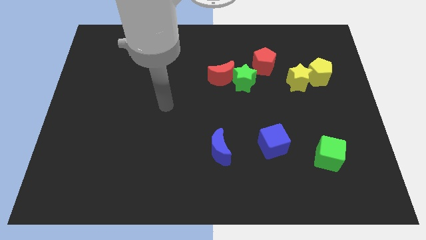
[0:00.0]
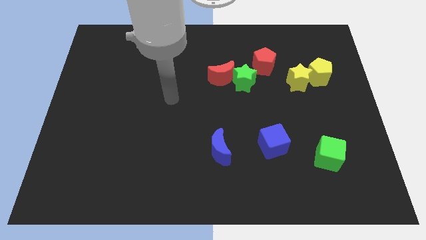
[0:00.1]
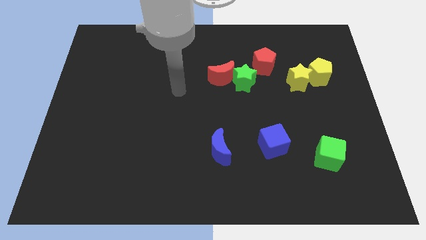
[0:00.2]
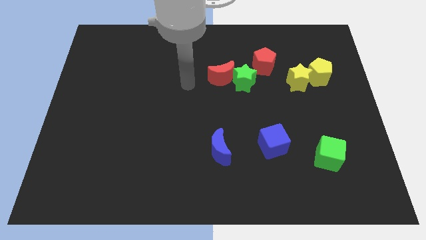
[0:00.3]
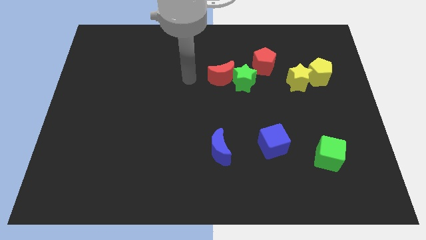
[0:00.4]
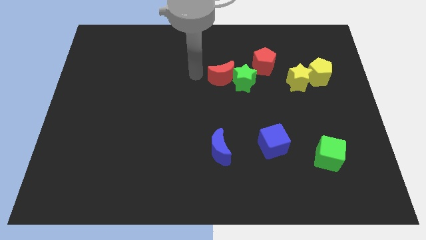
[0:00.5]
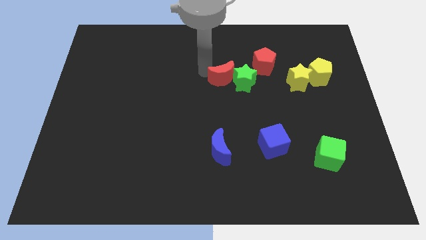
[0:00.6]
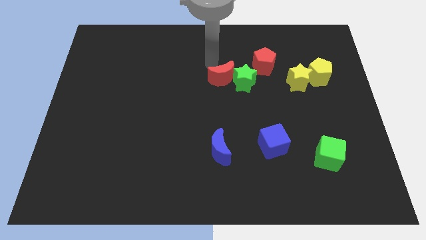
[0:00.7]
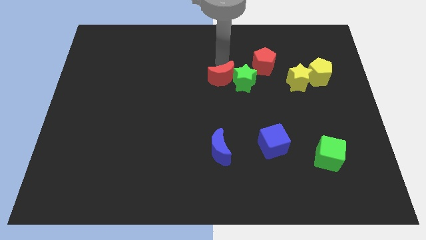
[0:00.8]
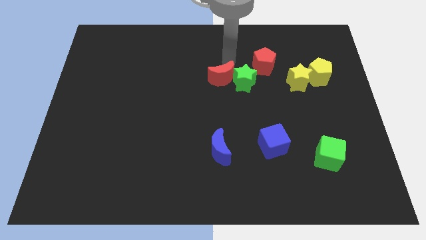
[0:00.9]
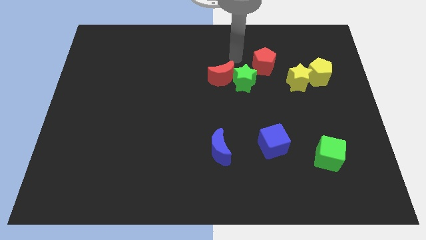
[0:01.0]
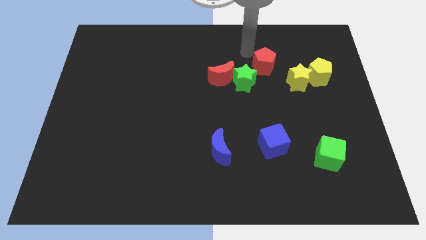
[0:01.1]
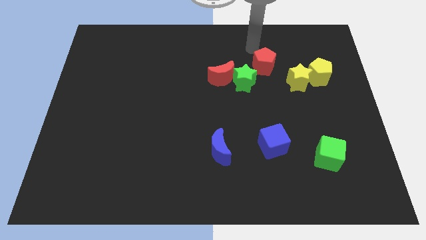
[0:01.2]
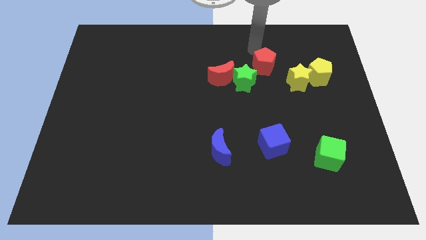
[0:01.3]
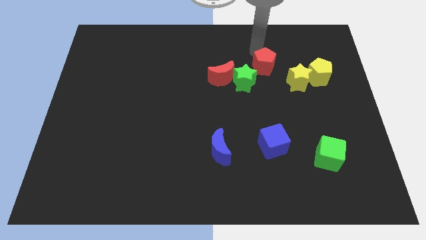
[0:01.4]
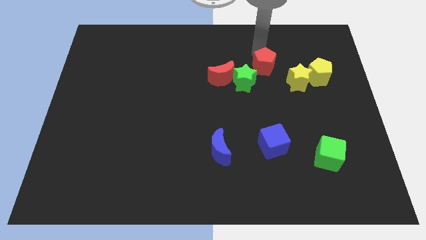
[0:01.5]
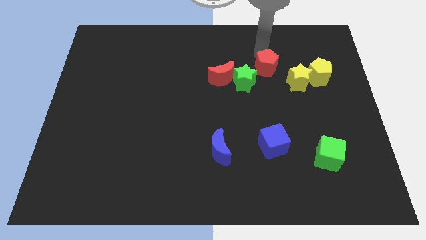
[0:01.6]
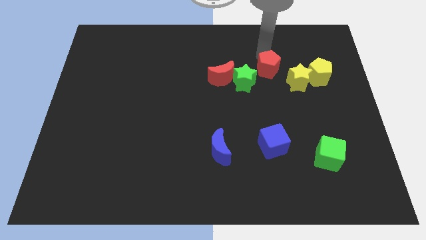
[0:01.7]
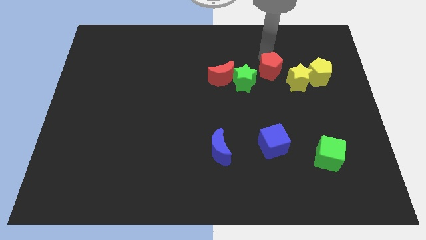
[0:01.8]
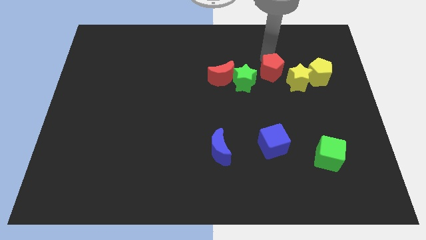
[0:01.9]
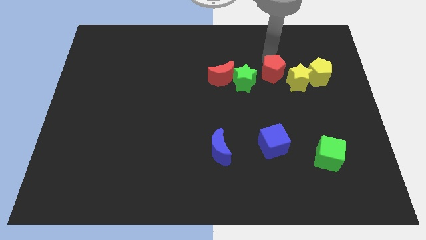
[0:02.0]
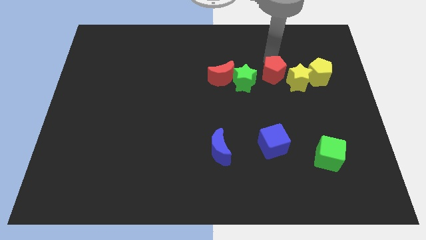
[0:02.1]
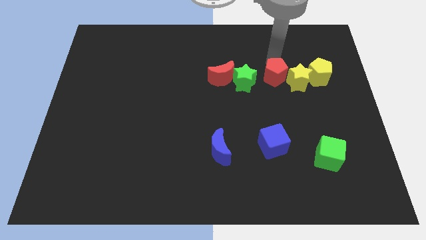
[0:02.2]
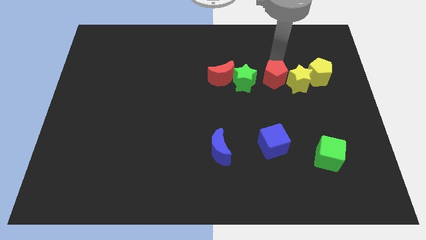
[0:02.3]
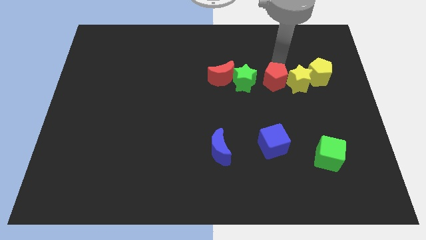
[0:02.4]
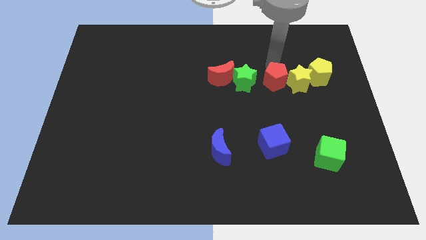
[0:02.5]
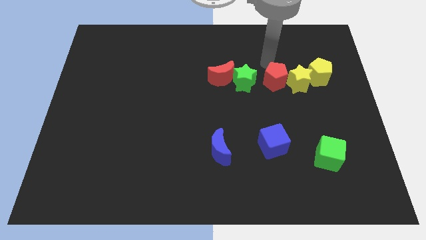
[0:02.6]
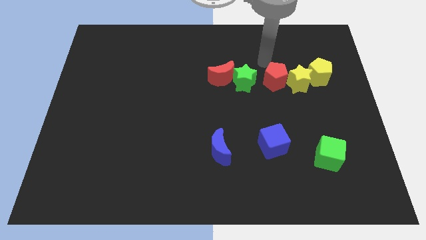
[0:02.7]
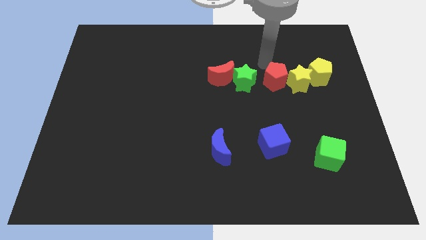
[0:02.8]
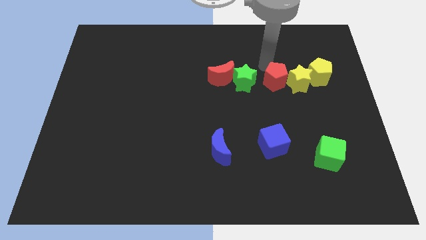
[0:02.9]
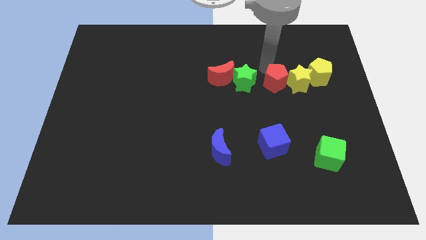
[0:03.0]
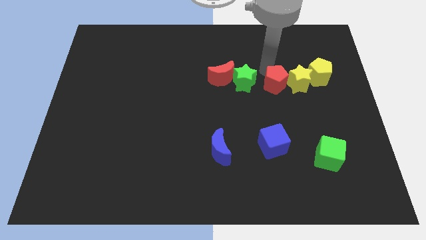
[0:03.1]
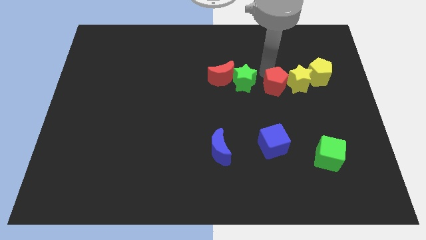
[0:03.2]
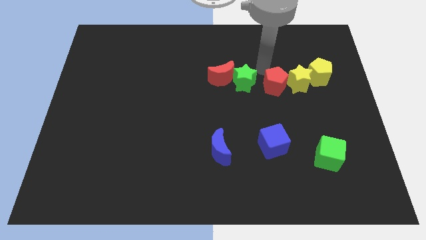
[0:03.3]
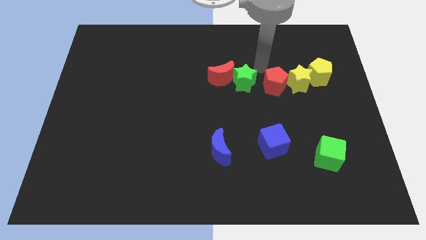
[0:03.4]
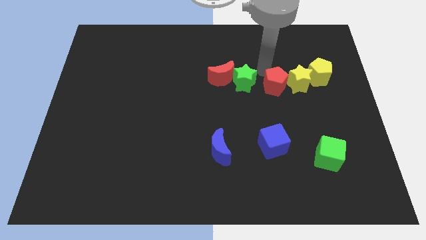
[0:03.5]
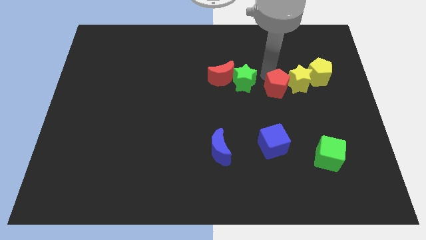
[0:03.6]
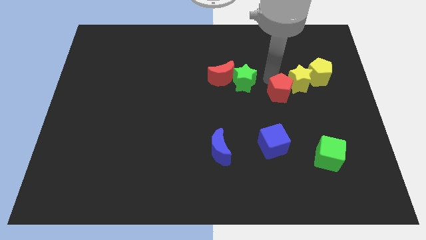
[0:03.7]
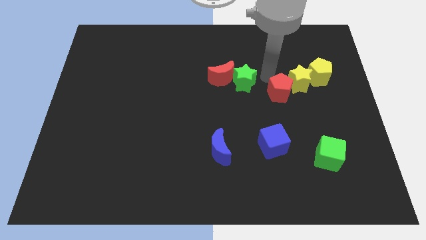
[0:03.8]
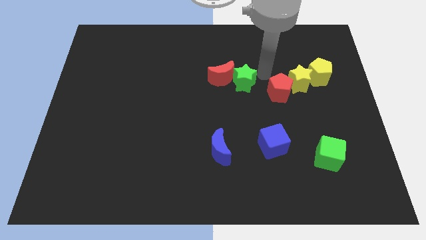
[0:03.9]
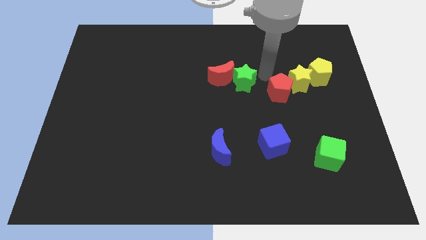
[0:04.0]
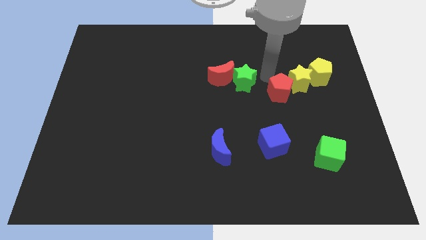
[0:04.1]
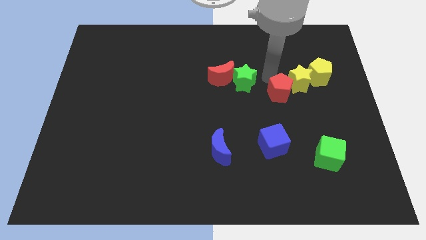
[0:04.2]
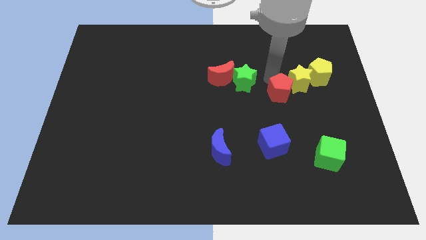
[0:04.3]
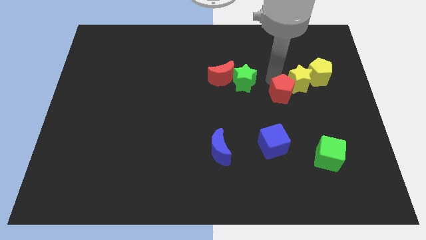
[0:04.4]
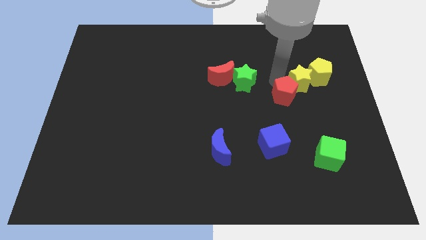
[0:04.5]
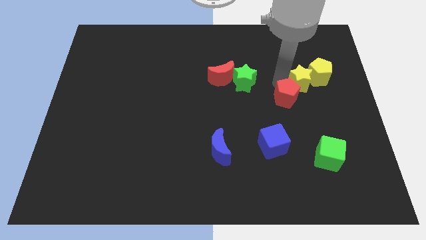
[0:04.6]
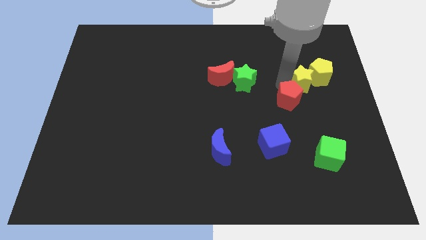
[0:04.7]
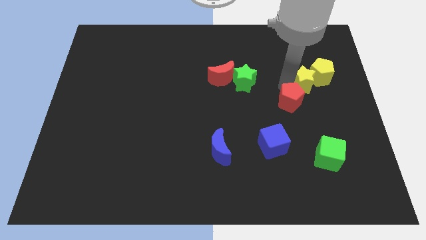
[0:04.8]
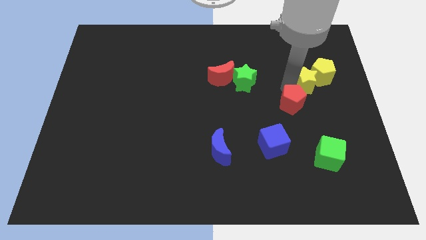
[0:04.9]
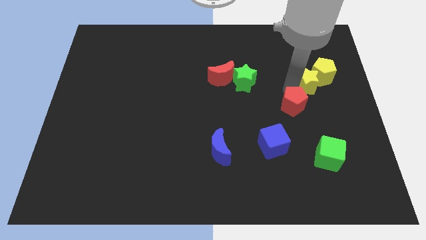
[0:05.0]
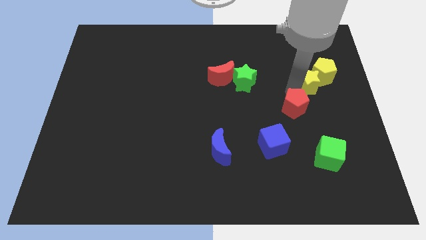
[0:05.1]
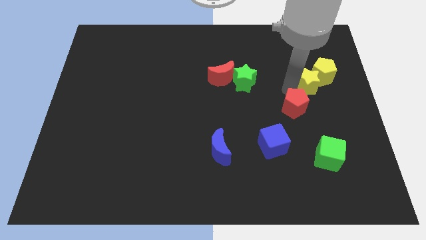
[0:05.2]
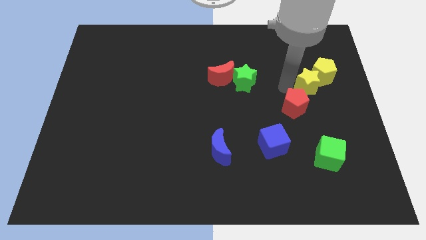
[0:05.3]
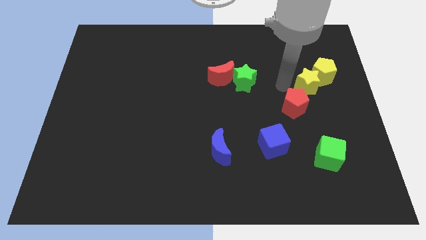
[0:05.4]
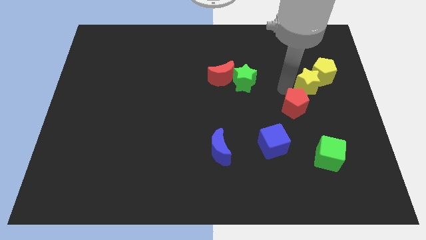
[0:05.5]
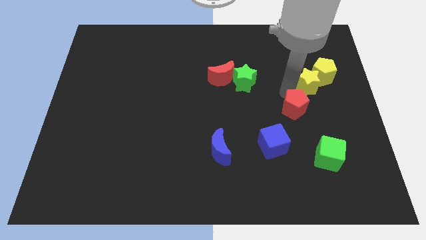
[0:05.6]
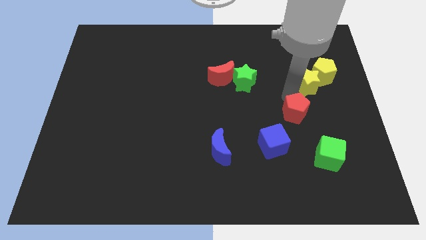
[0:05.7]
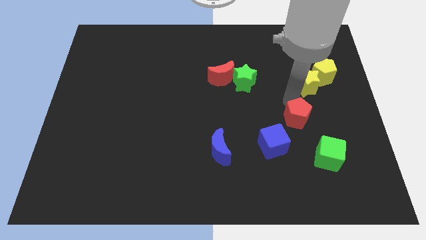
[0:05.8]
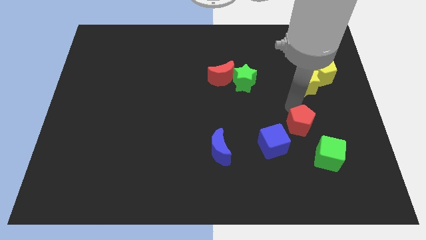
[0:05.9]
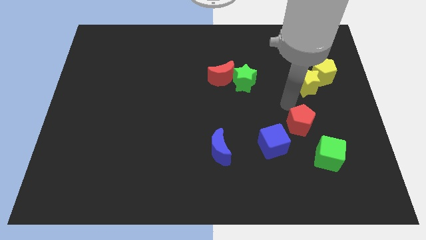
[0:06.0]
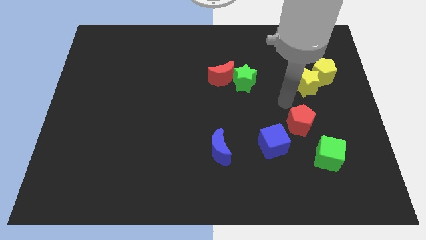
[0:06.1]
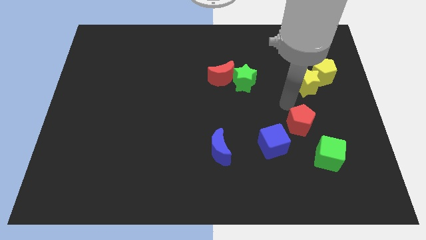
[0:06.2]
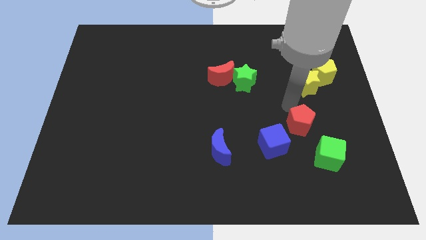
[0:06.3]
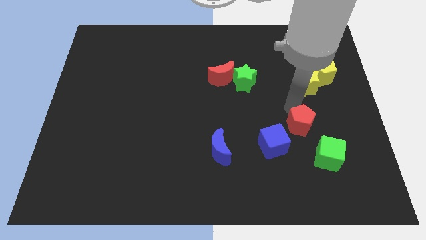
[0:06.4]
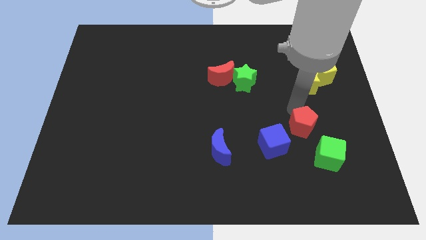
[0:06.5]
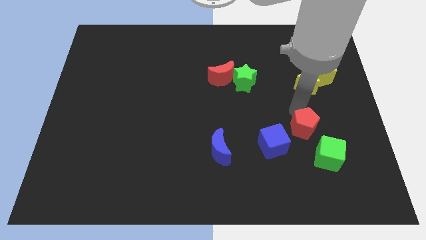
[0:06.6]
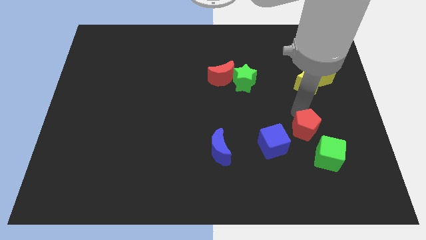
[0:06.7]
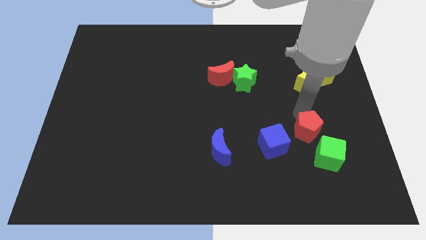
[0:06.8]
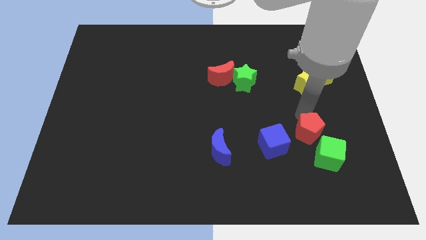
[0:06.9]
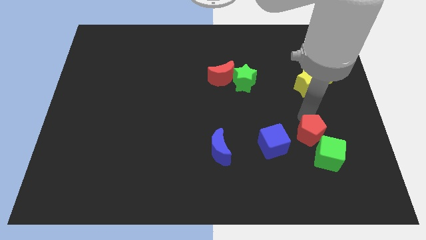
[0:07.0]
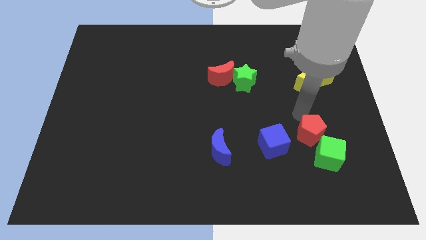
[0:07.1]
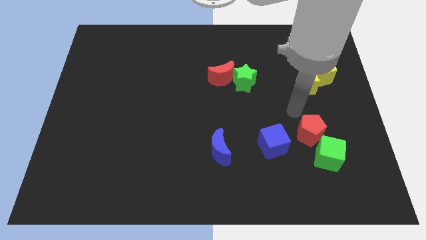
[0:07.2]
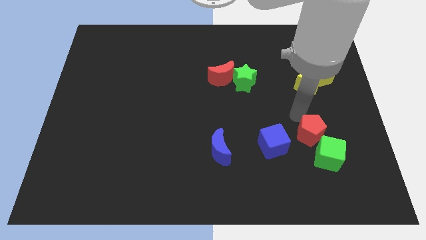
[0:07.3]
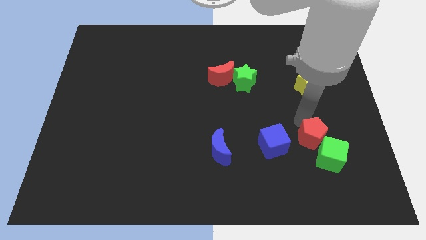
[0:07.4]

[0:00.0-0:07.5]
put the red pentagon next to the green cube
